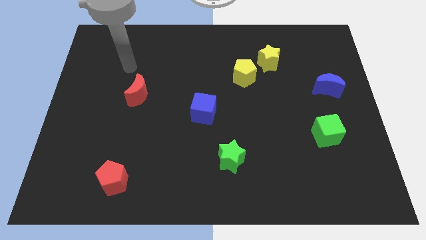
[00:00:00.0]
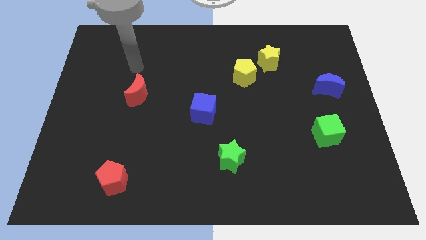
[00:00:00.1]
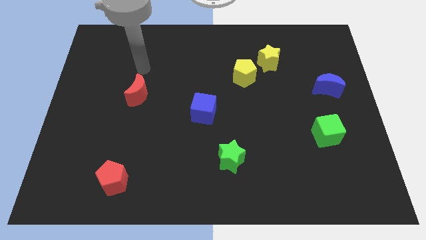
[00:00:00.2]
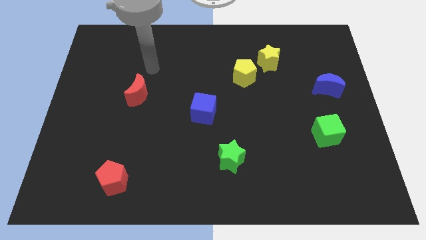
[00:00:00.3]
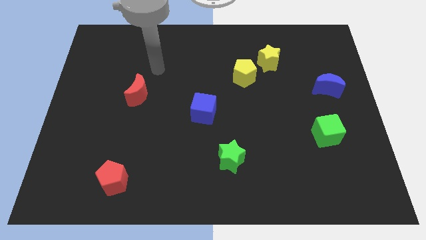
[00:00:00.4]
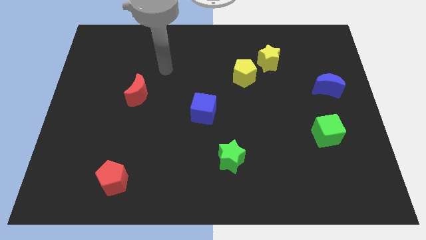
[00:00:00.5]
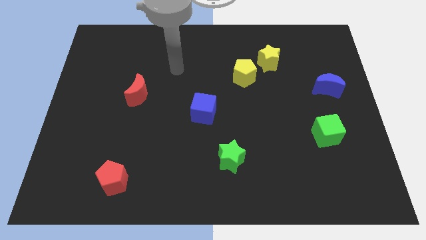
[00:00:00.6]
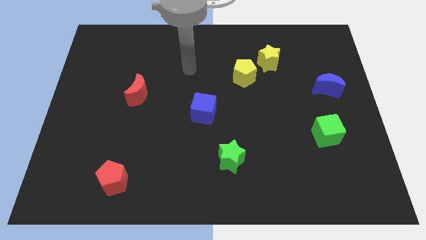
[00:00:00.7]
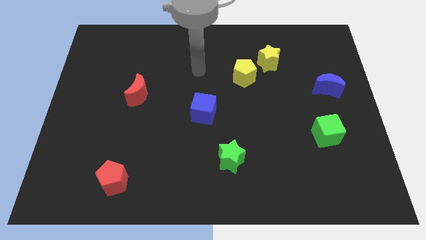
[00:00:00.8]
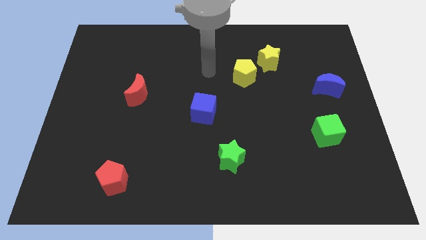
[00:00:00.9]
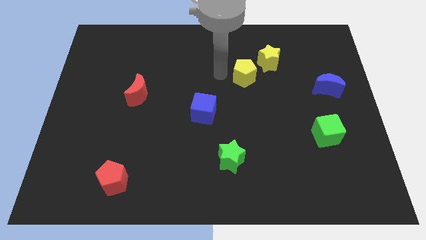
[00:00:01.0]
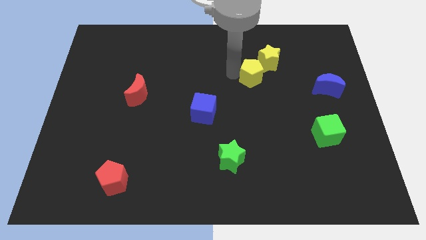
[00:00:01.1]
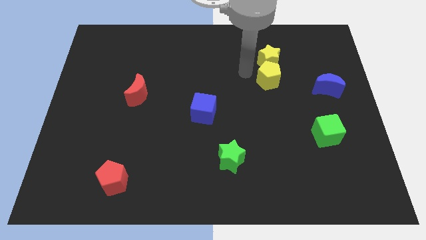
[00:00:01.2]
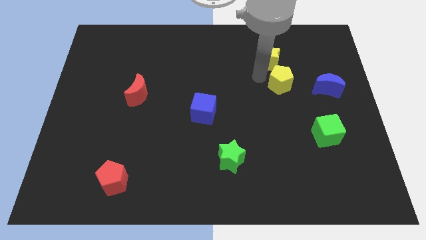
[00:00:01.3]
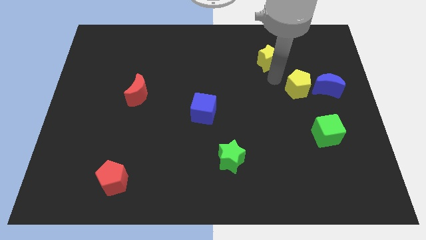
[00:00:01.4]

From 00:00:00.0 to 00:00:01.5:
move the yellow star away from the yellow pentagon

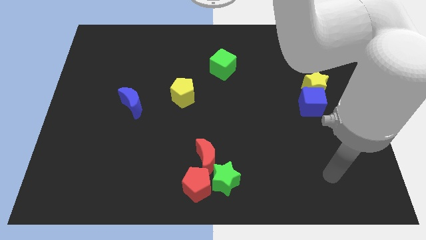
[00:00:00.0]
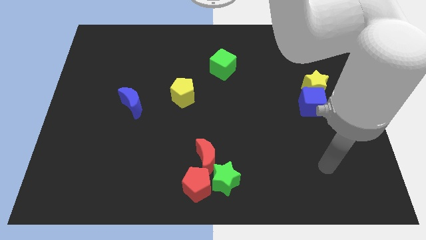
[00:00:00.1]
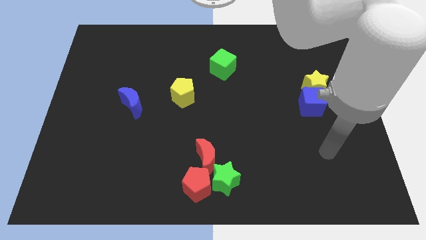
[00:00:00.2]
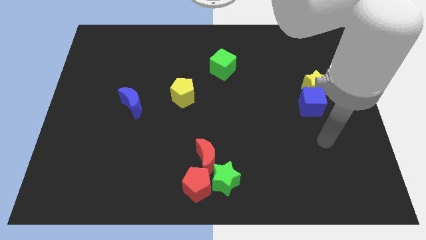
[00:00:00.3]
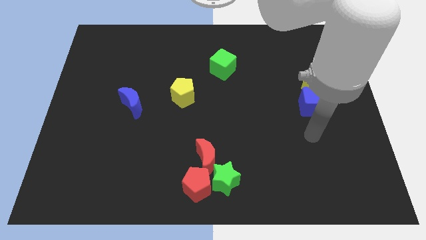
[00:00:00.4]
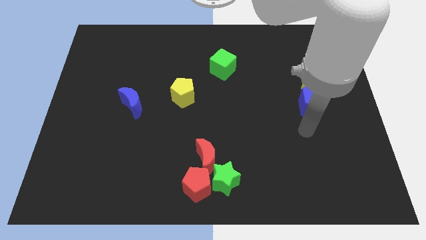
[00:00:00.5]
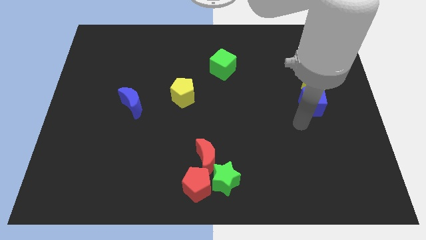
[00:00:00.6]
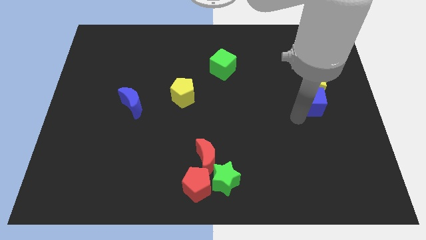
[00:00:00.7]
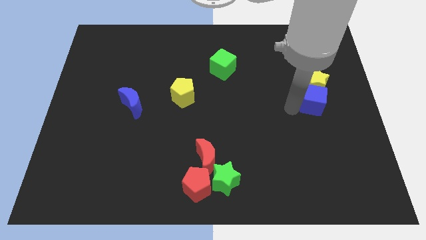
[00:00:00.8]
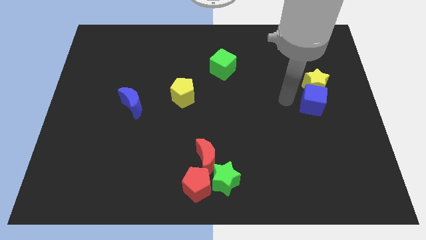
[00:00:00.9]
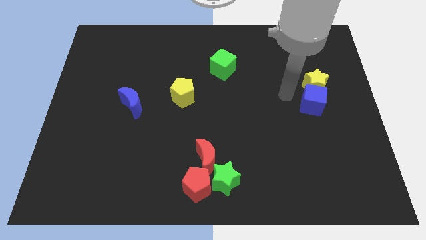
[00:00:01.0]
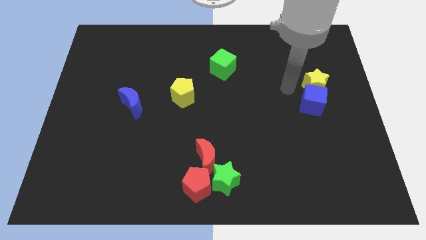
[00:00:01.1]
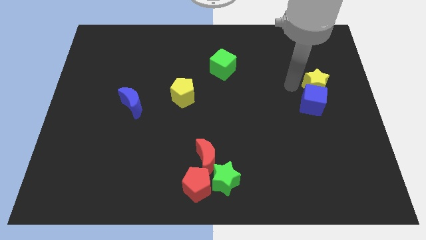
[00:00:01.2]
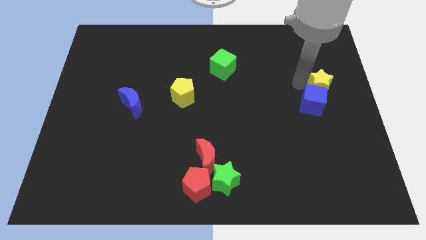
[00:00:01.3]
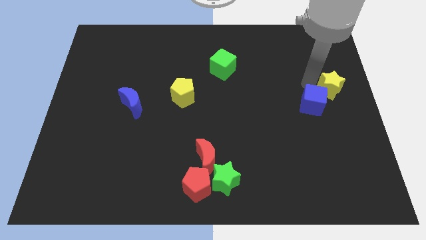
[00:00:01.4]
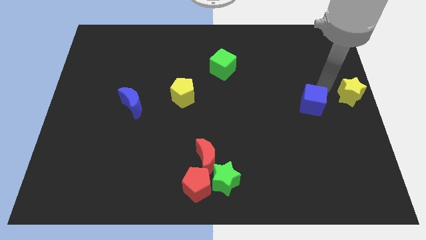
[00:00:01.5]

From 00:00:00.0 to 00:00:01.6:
move the blue cube away from the yellow star

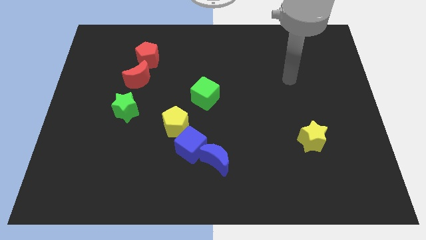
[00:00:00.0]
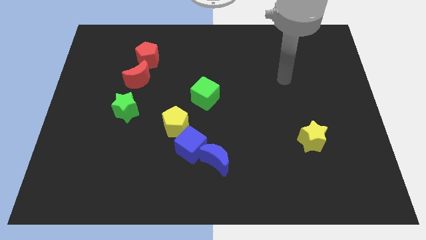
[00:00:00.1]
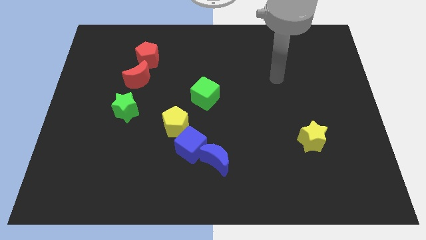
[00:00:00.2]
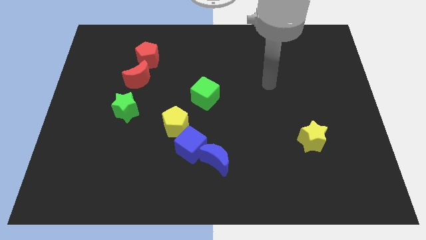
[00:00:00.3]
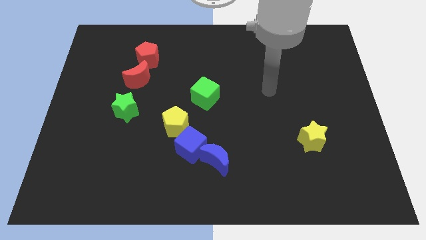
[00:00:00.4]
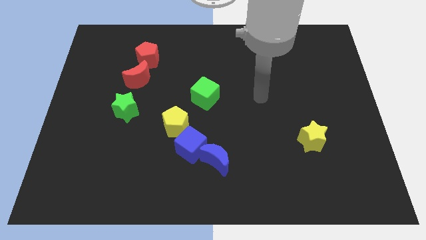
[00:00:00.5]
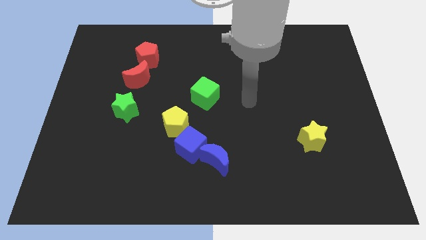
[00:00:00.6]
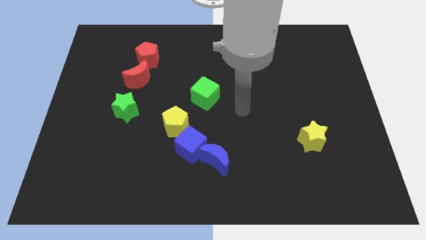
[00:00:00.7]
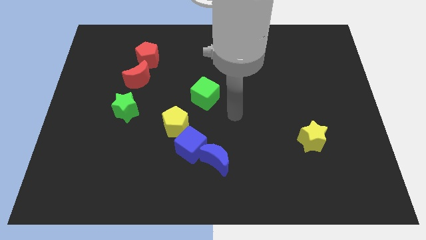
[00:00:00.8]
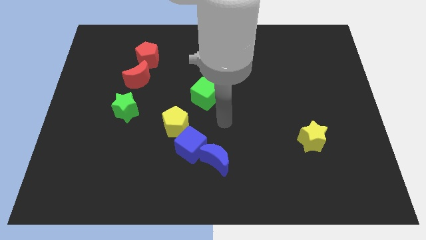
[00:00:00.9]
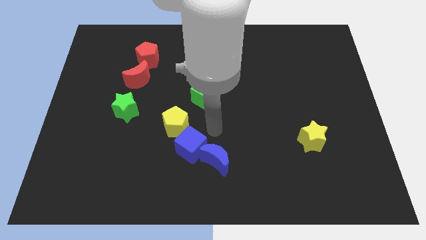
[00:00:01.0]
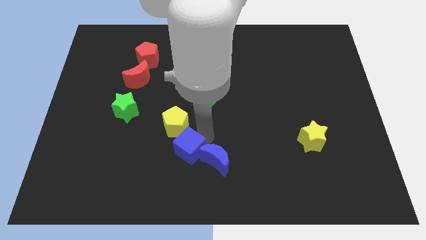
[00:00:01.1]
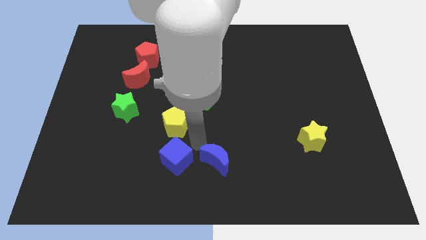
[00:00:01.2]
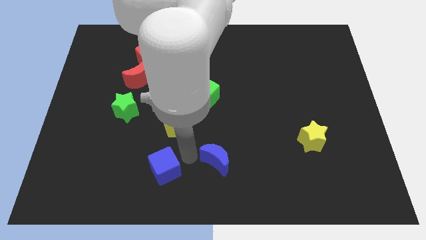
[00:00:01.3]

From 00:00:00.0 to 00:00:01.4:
separate the blue moon from the blue cube

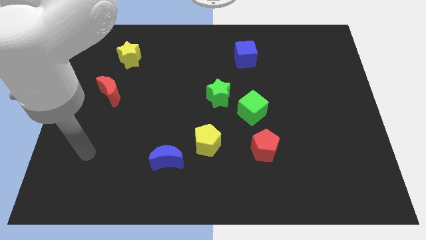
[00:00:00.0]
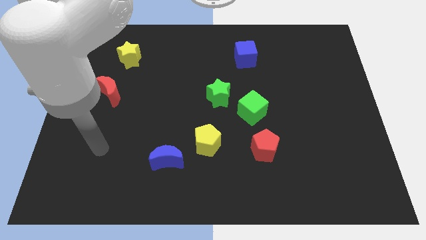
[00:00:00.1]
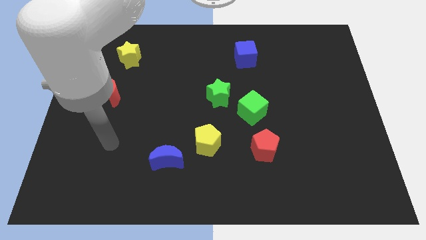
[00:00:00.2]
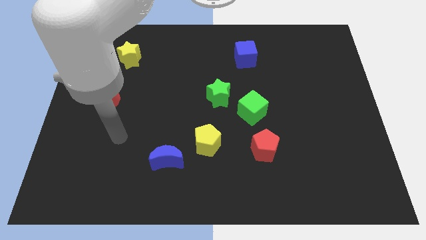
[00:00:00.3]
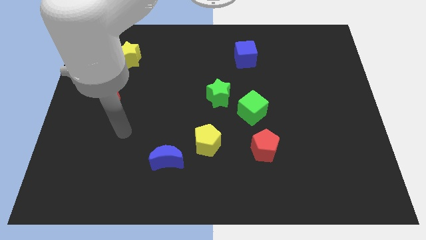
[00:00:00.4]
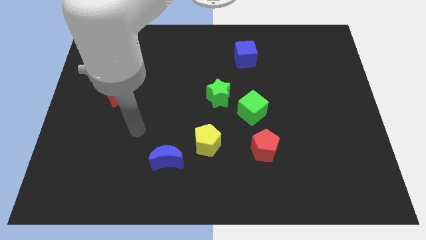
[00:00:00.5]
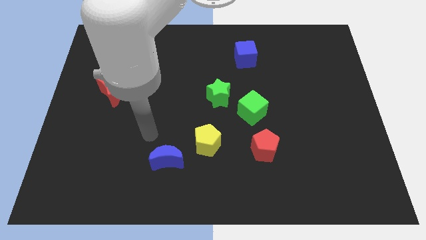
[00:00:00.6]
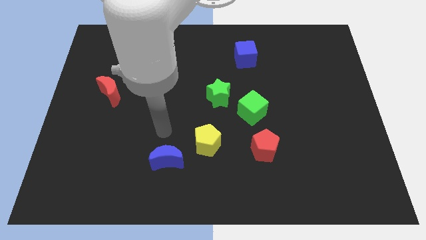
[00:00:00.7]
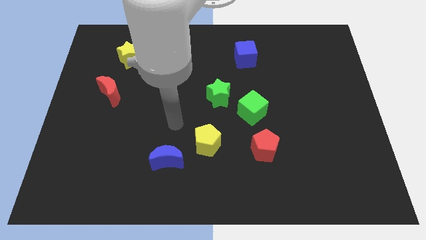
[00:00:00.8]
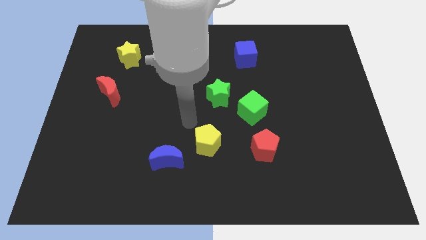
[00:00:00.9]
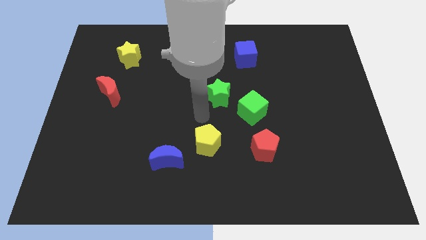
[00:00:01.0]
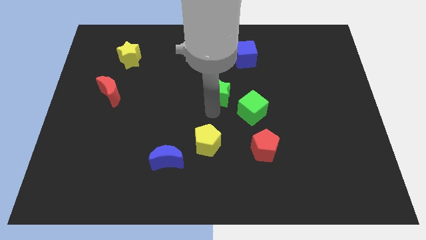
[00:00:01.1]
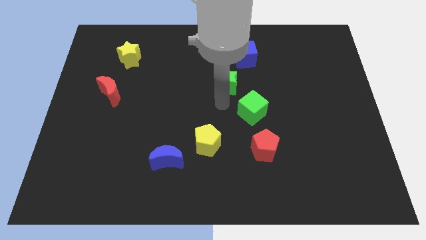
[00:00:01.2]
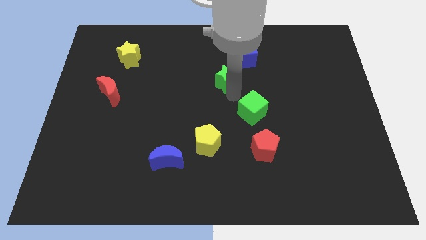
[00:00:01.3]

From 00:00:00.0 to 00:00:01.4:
pull the green cube apart from the green star

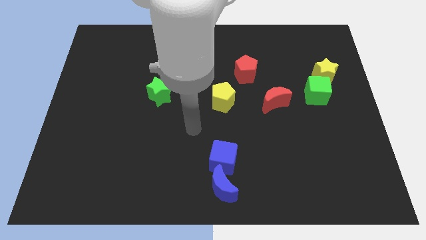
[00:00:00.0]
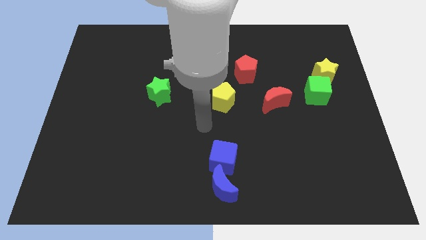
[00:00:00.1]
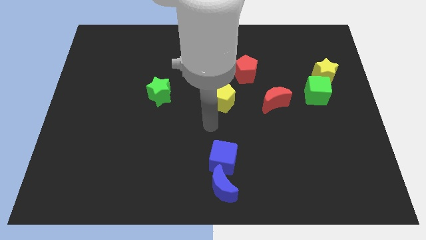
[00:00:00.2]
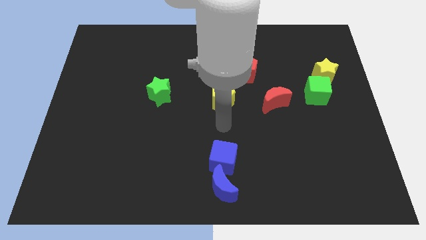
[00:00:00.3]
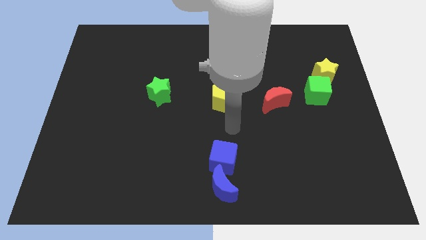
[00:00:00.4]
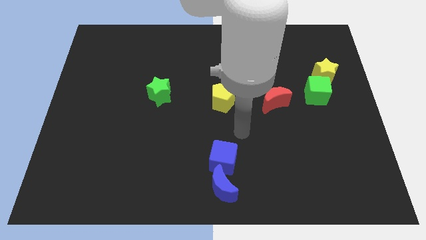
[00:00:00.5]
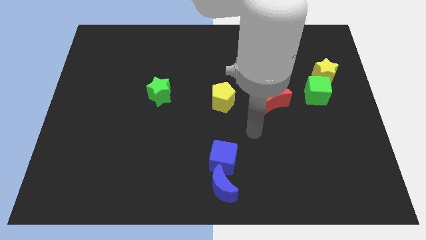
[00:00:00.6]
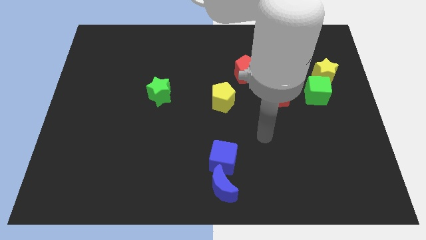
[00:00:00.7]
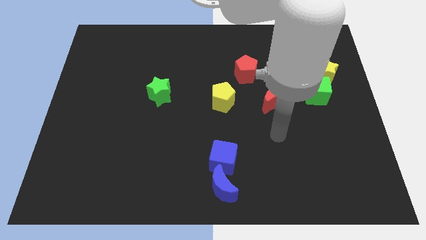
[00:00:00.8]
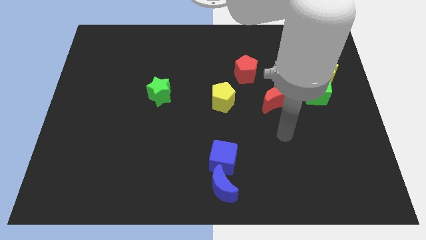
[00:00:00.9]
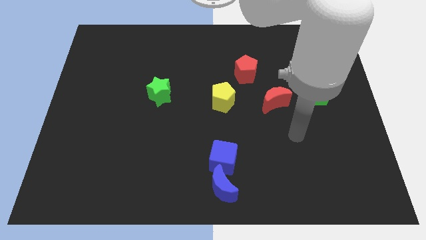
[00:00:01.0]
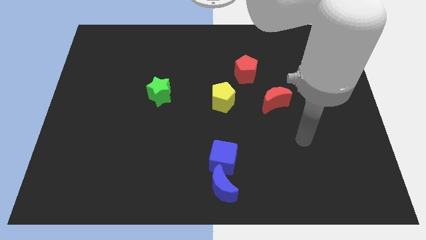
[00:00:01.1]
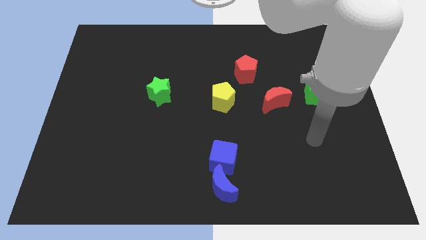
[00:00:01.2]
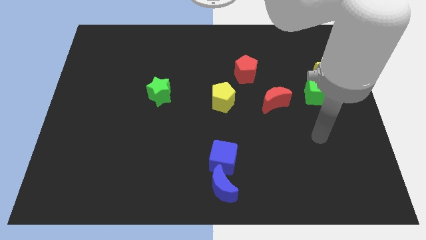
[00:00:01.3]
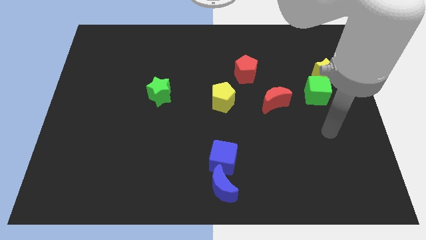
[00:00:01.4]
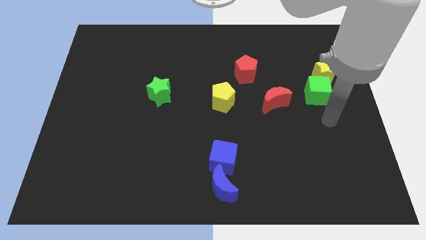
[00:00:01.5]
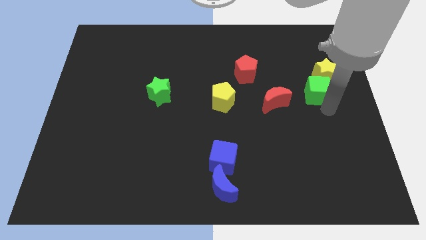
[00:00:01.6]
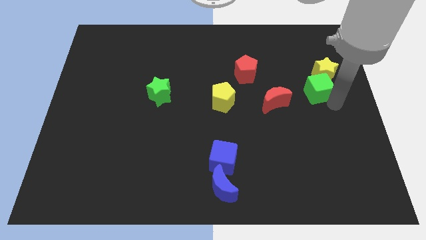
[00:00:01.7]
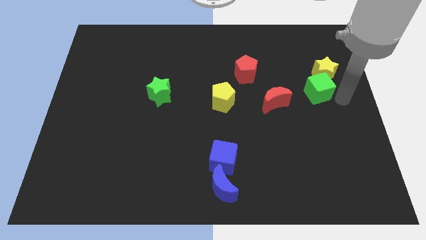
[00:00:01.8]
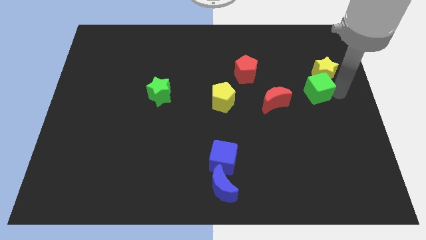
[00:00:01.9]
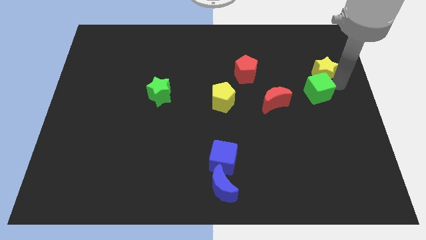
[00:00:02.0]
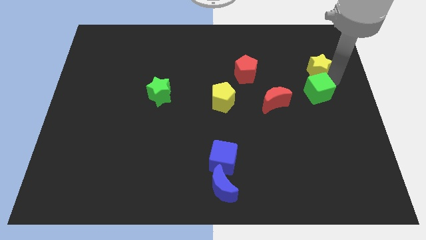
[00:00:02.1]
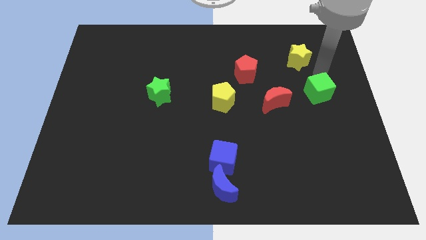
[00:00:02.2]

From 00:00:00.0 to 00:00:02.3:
pull the green cube apart from the yellow star

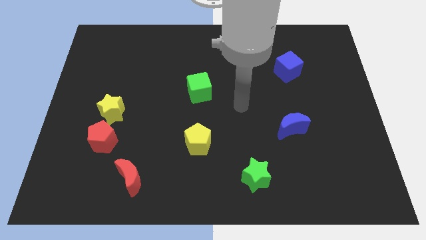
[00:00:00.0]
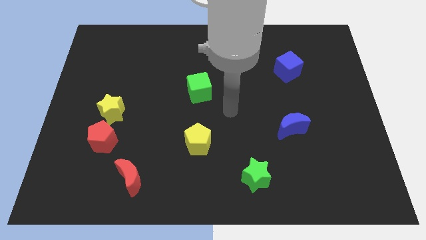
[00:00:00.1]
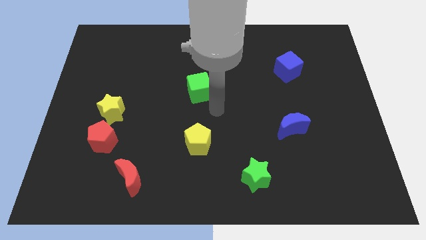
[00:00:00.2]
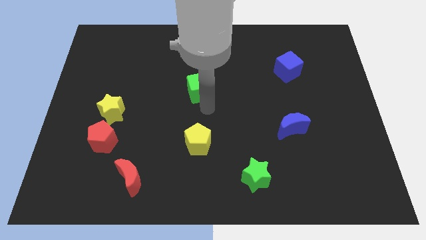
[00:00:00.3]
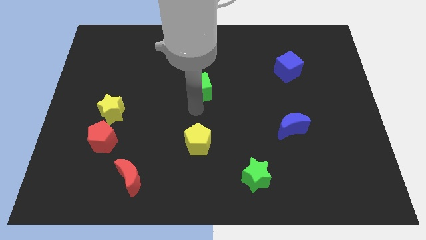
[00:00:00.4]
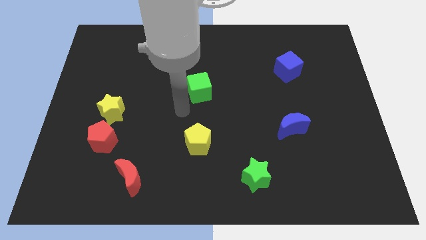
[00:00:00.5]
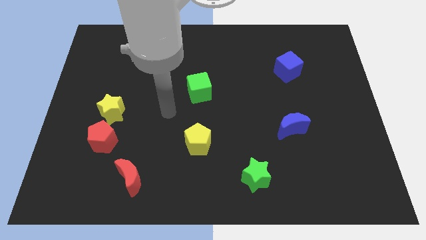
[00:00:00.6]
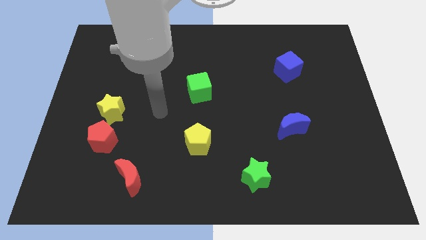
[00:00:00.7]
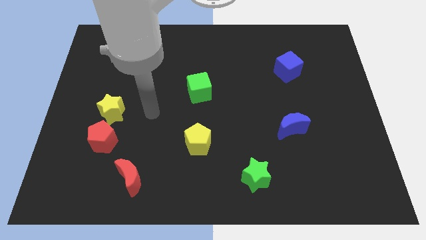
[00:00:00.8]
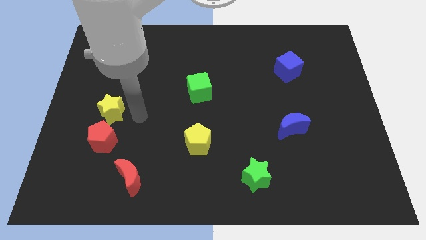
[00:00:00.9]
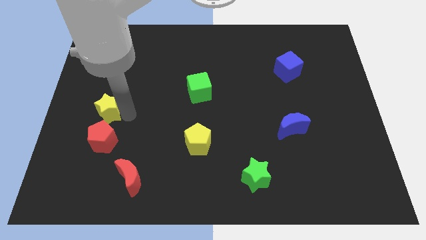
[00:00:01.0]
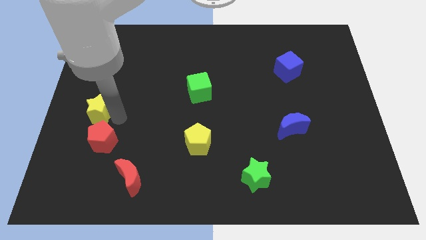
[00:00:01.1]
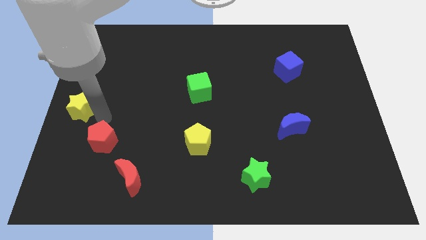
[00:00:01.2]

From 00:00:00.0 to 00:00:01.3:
separate the red pentagon from the yellow star
